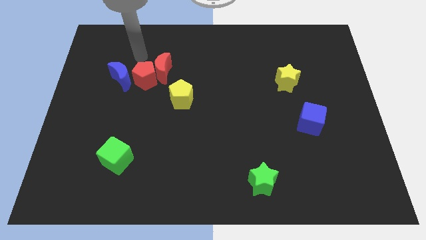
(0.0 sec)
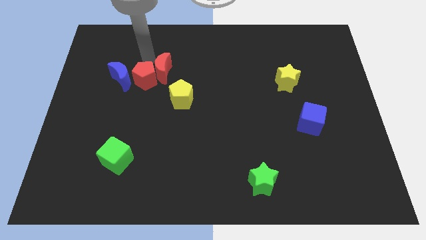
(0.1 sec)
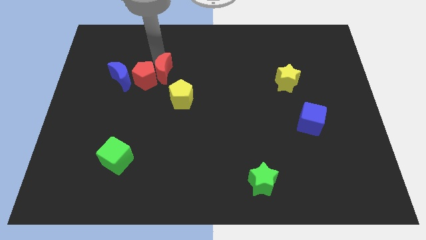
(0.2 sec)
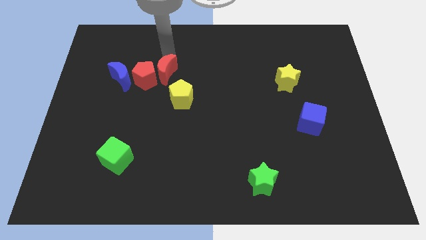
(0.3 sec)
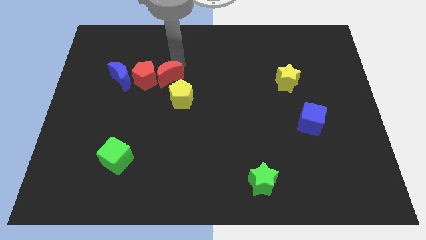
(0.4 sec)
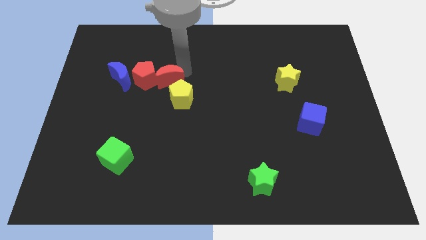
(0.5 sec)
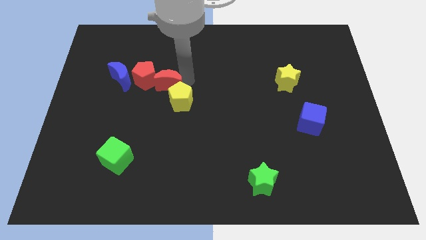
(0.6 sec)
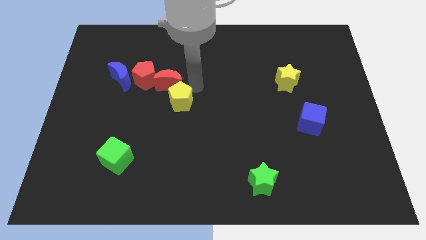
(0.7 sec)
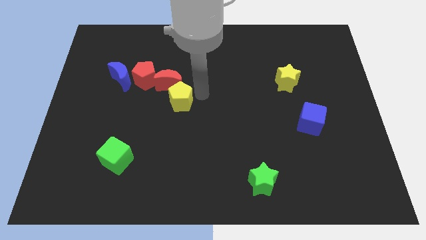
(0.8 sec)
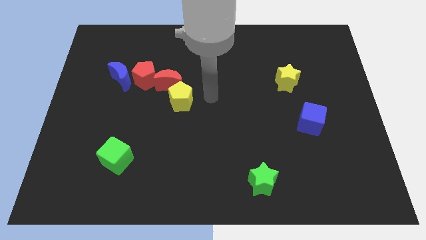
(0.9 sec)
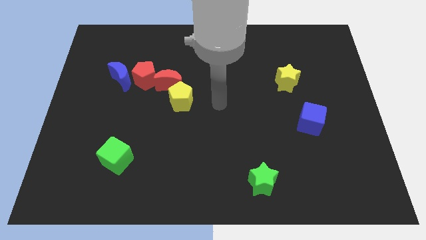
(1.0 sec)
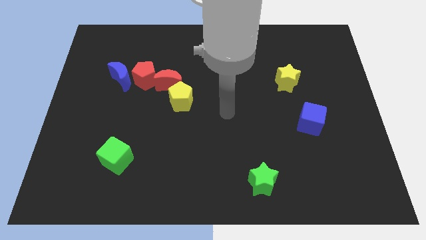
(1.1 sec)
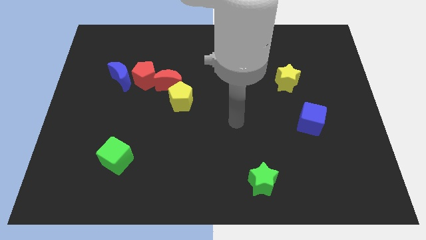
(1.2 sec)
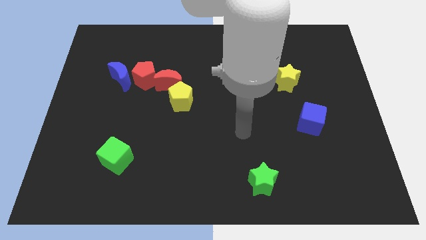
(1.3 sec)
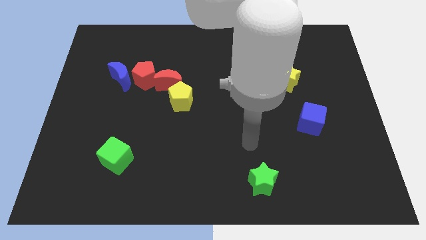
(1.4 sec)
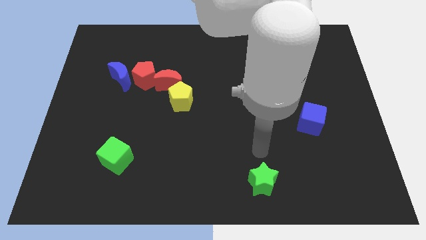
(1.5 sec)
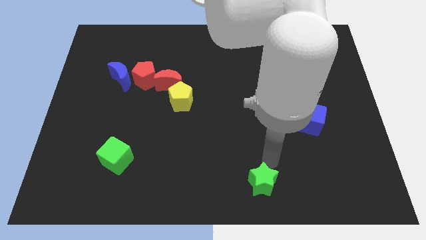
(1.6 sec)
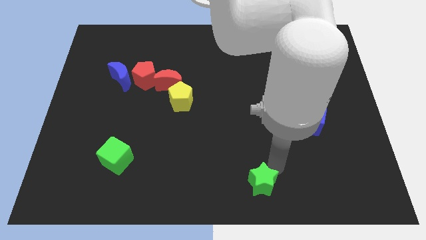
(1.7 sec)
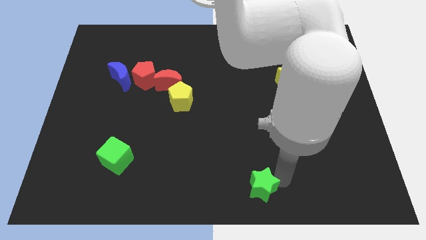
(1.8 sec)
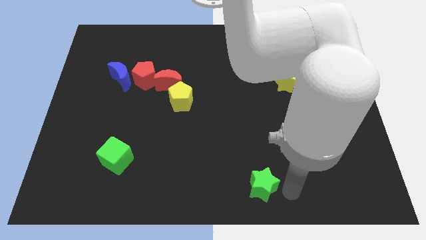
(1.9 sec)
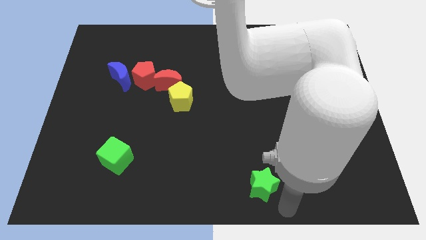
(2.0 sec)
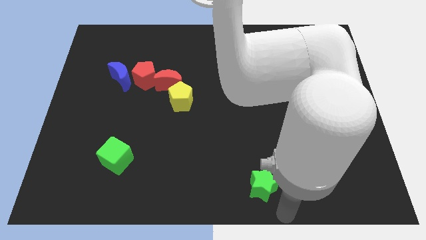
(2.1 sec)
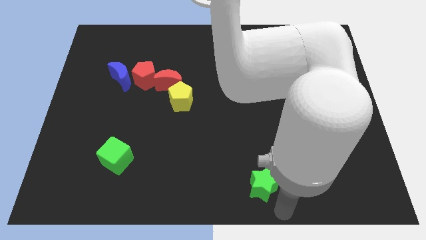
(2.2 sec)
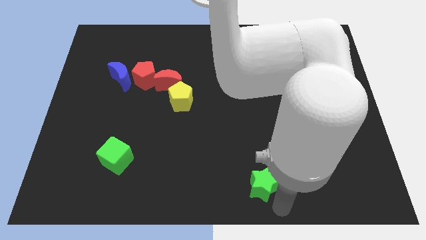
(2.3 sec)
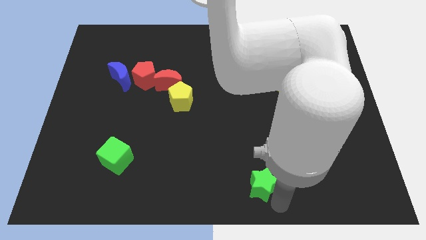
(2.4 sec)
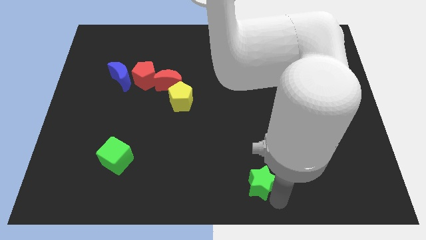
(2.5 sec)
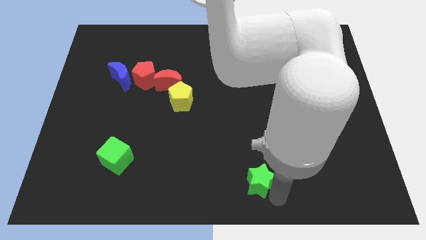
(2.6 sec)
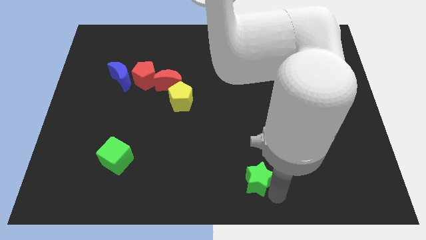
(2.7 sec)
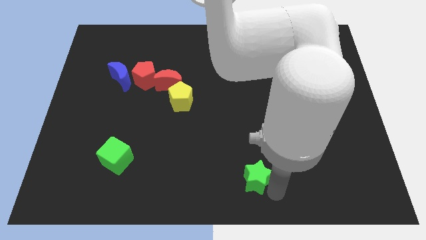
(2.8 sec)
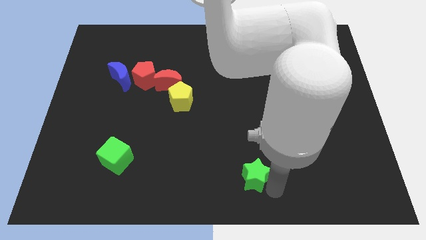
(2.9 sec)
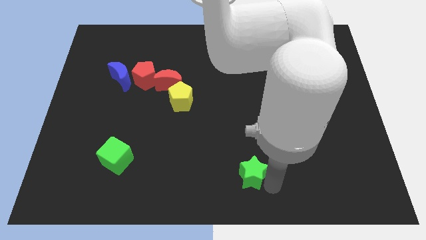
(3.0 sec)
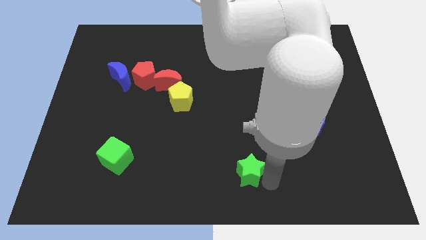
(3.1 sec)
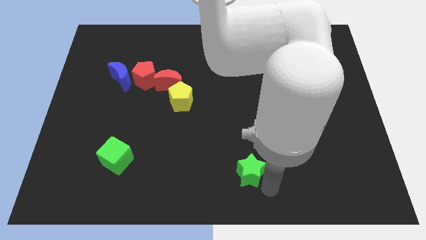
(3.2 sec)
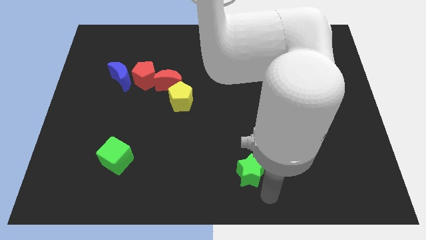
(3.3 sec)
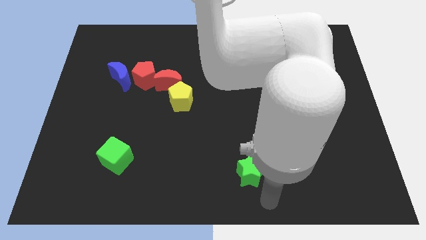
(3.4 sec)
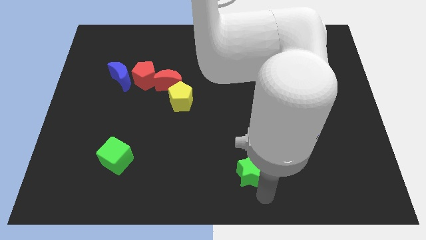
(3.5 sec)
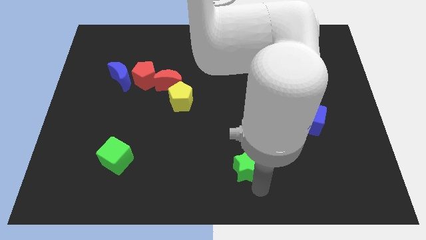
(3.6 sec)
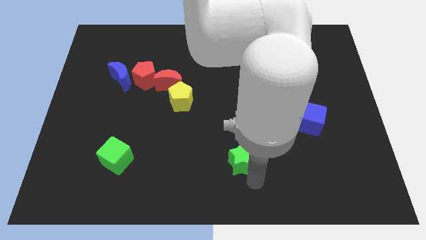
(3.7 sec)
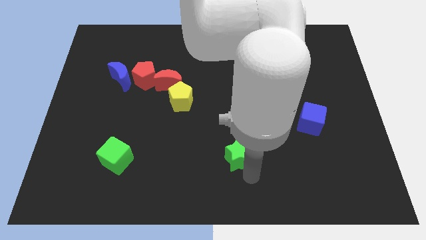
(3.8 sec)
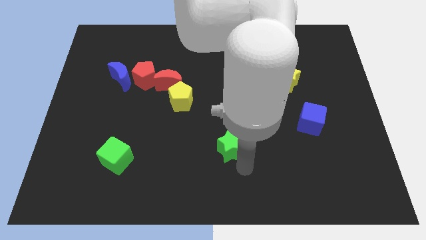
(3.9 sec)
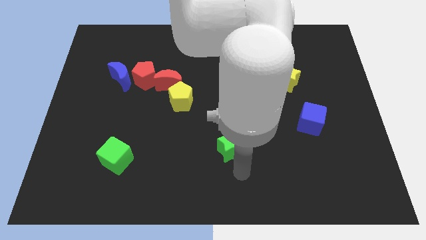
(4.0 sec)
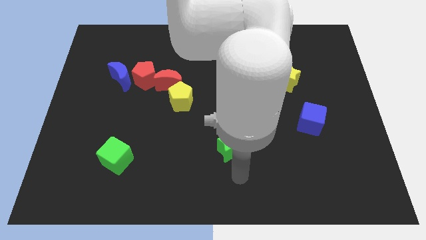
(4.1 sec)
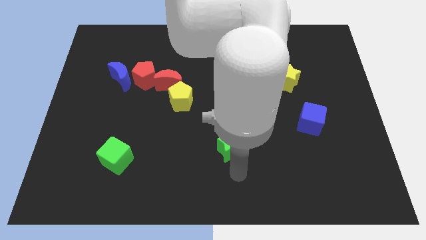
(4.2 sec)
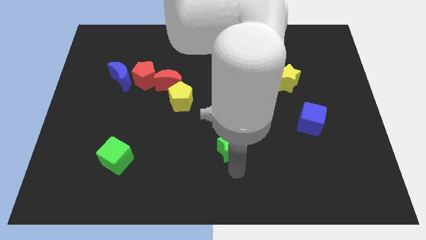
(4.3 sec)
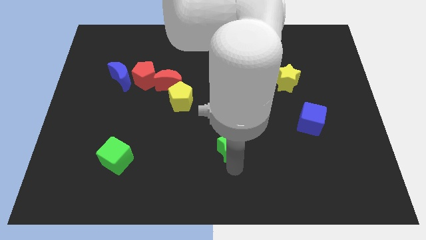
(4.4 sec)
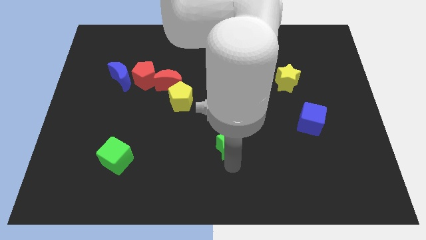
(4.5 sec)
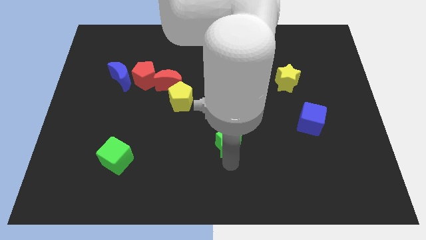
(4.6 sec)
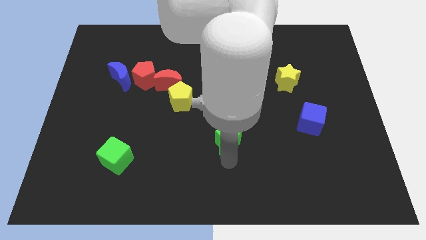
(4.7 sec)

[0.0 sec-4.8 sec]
push the green star to the middle

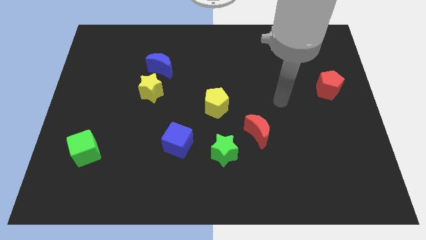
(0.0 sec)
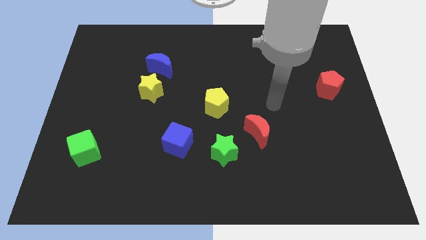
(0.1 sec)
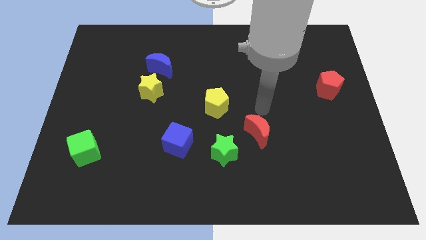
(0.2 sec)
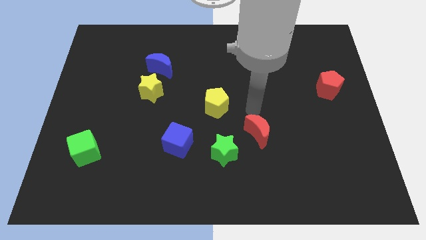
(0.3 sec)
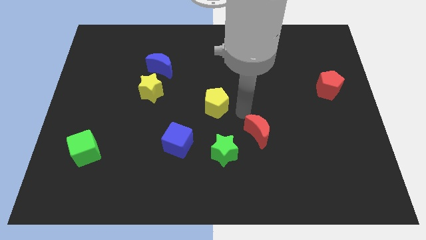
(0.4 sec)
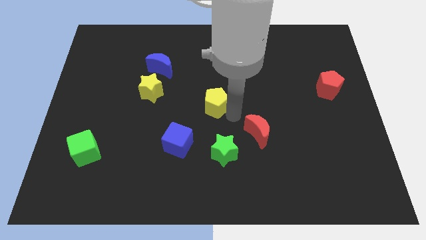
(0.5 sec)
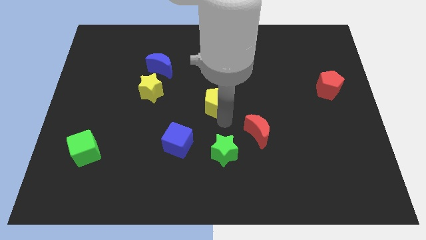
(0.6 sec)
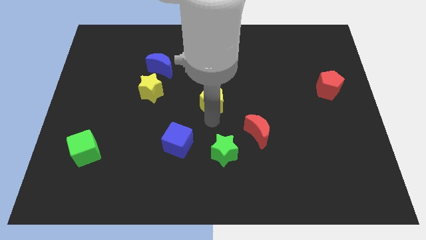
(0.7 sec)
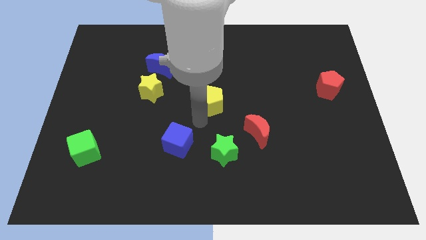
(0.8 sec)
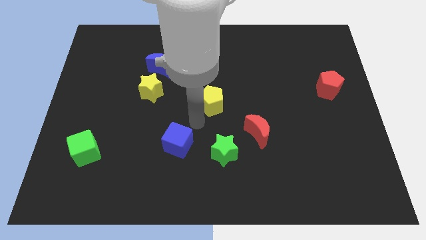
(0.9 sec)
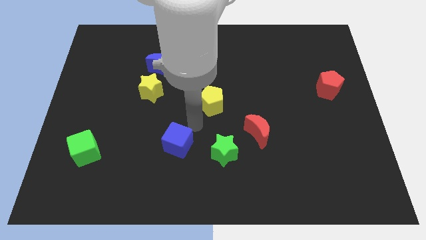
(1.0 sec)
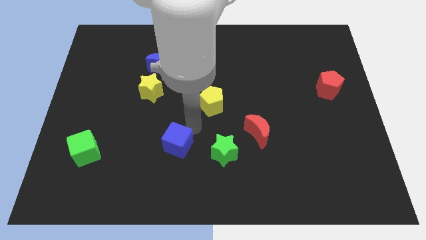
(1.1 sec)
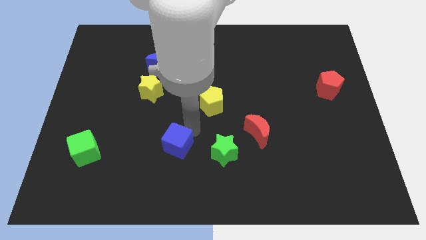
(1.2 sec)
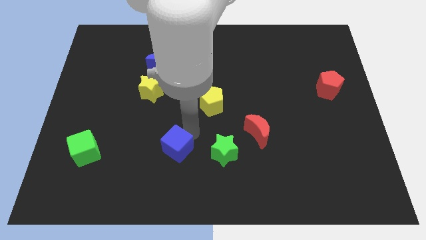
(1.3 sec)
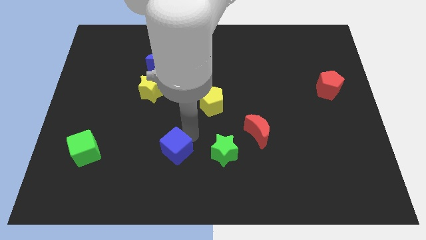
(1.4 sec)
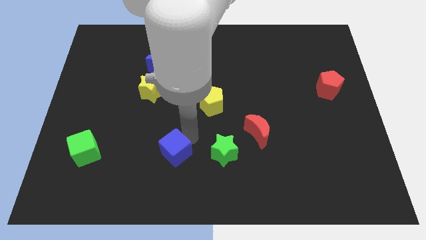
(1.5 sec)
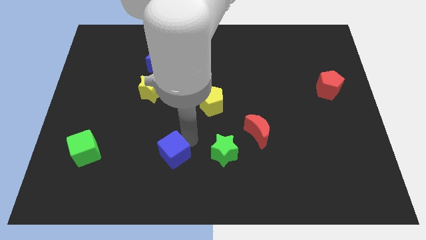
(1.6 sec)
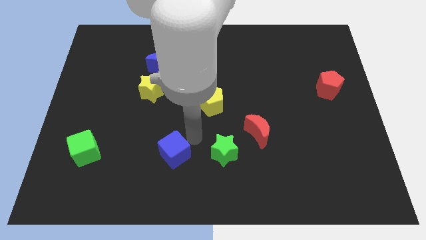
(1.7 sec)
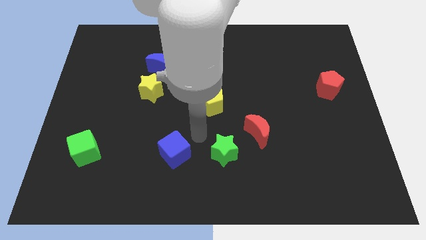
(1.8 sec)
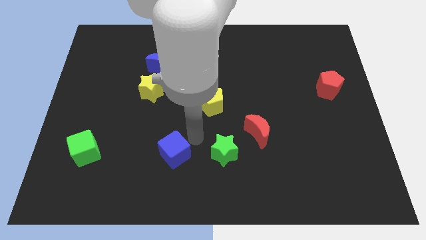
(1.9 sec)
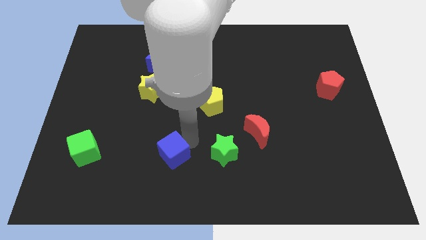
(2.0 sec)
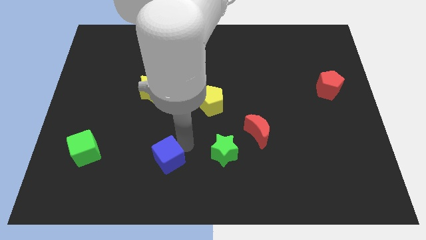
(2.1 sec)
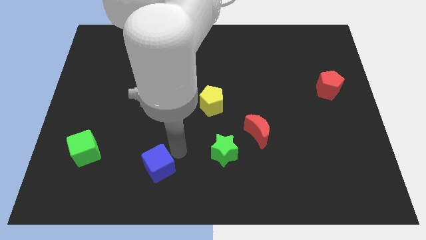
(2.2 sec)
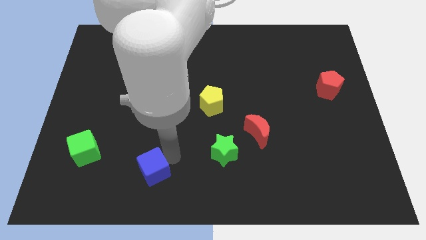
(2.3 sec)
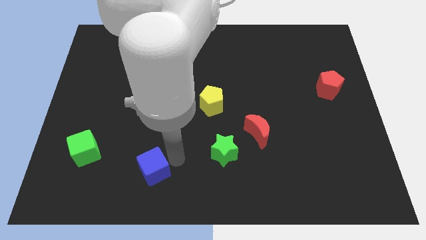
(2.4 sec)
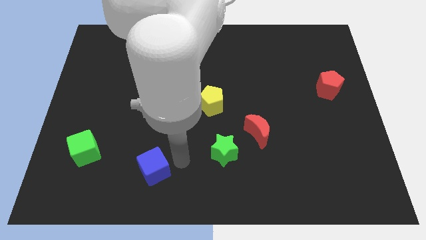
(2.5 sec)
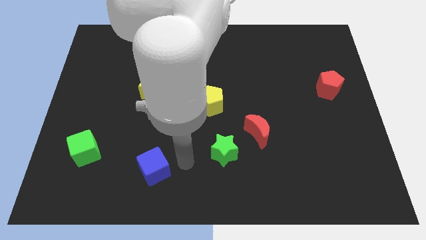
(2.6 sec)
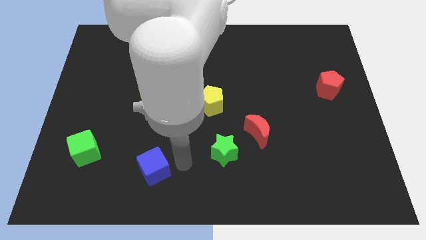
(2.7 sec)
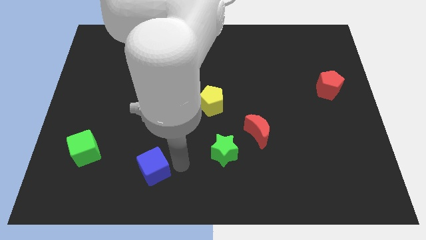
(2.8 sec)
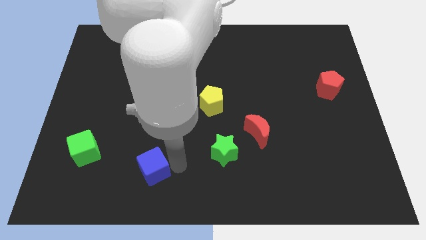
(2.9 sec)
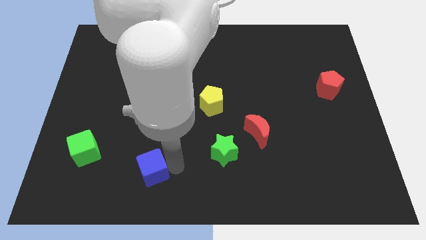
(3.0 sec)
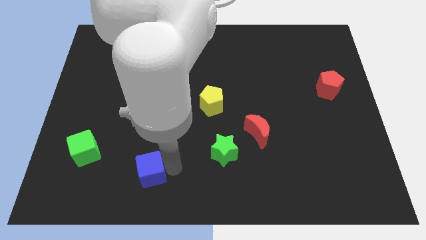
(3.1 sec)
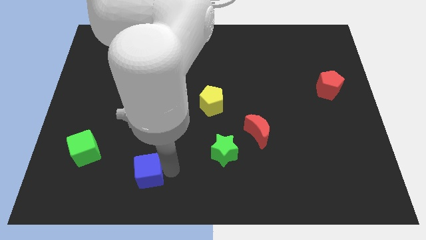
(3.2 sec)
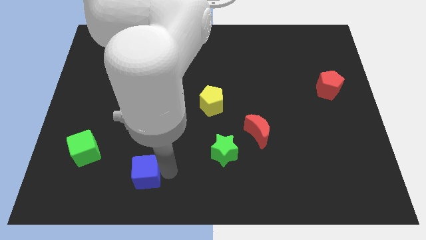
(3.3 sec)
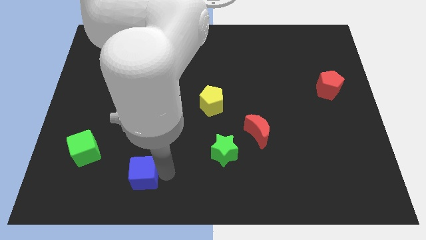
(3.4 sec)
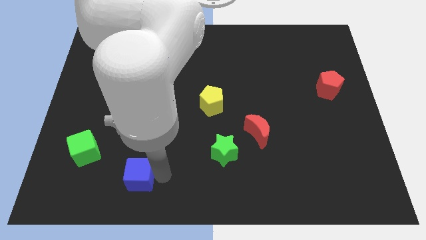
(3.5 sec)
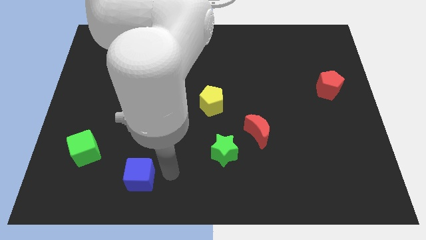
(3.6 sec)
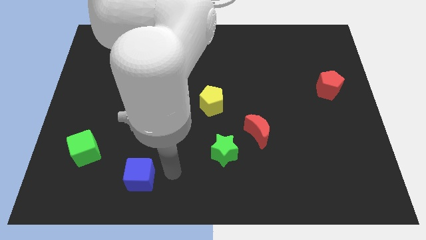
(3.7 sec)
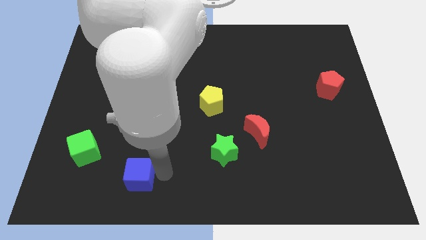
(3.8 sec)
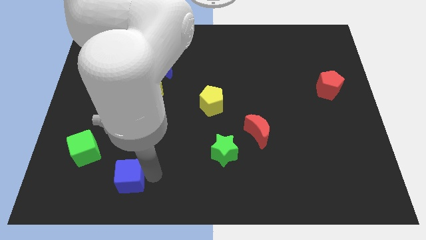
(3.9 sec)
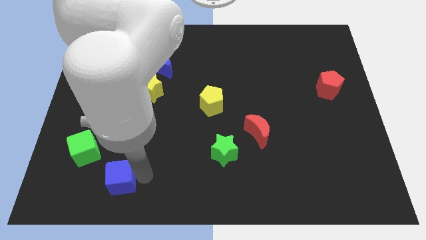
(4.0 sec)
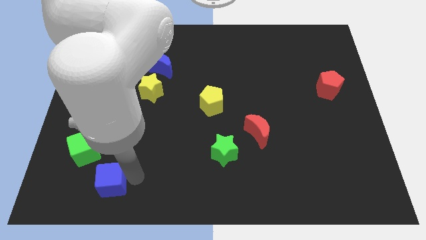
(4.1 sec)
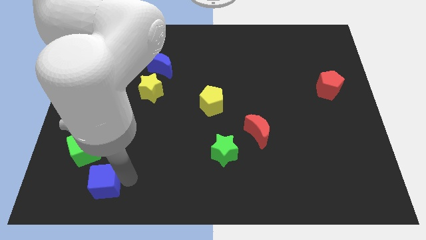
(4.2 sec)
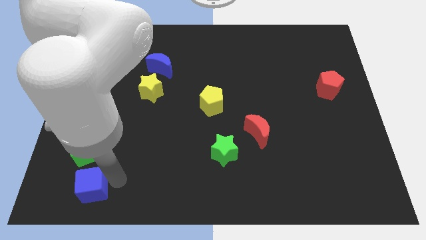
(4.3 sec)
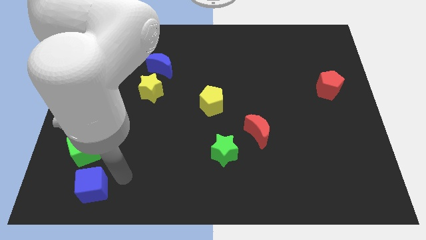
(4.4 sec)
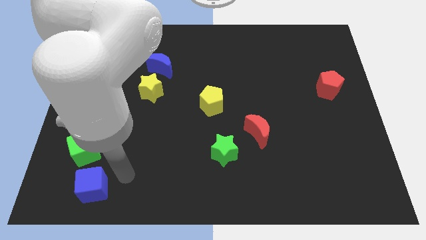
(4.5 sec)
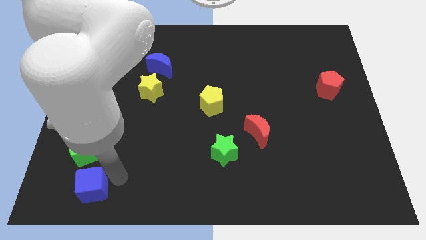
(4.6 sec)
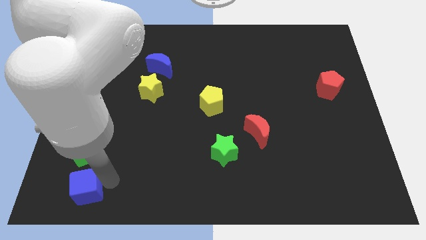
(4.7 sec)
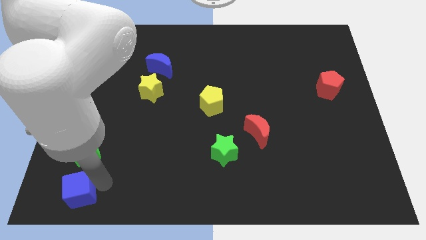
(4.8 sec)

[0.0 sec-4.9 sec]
slide the blue cube to the bottom left
